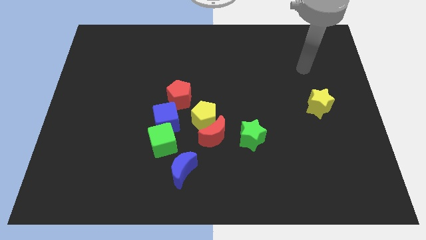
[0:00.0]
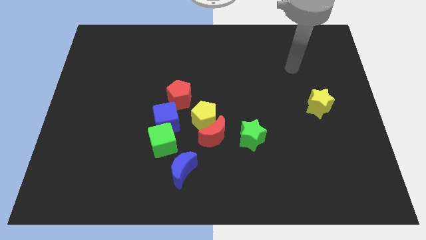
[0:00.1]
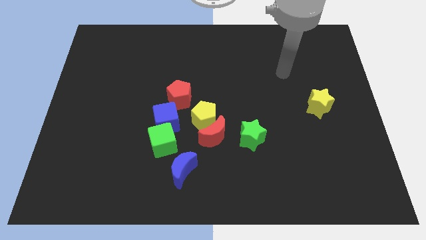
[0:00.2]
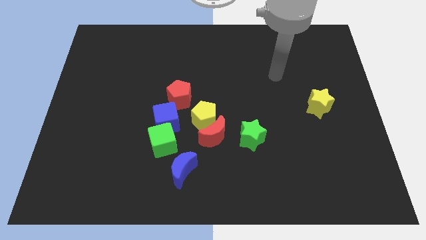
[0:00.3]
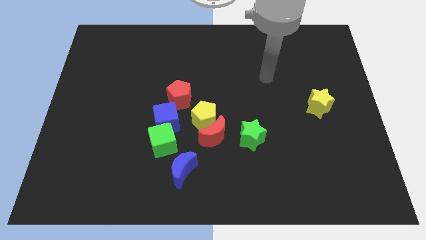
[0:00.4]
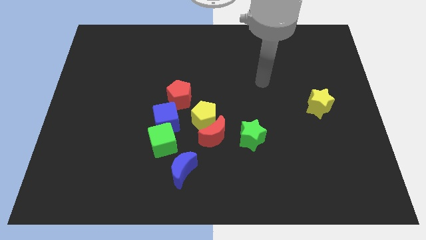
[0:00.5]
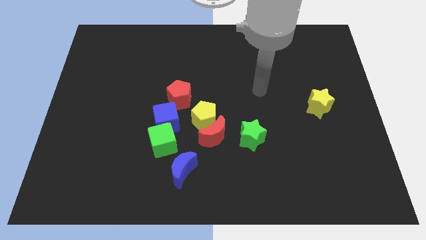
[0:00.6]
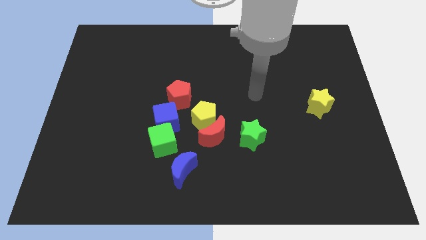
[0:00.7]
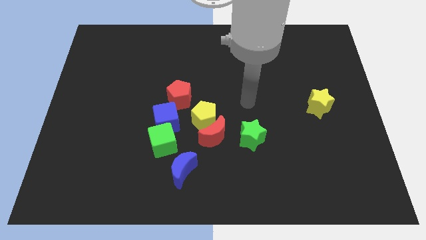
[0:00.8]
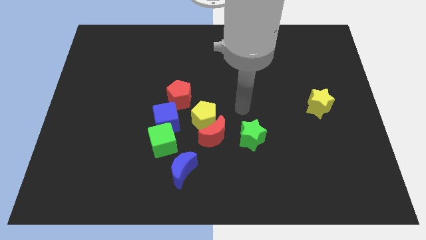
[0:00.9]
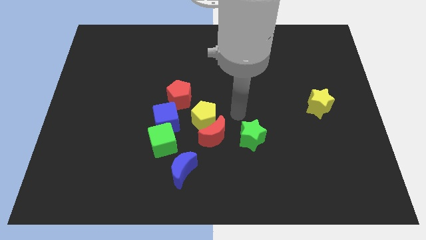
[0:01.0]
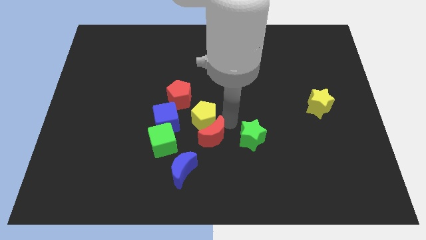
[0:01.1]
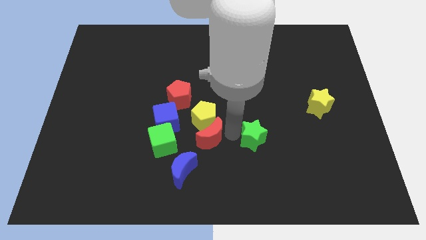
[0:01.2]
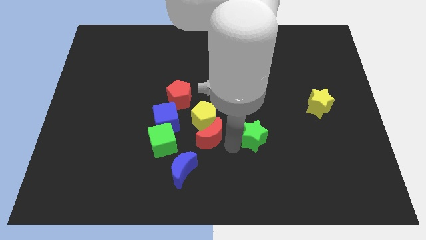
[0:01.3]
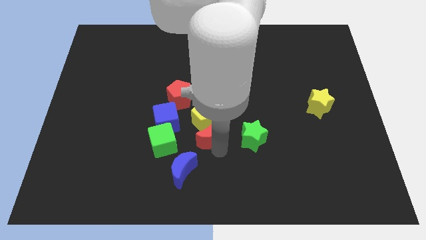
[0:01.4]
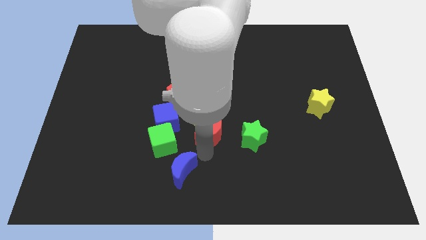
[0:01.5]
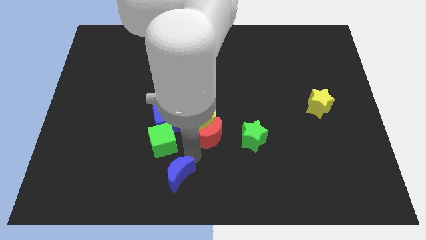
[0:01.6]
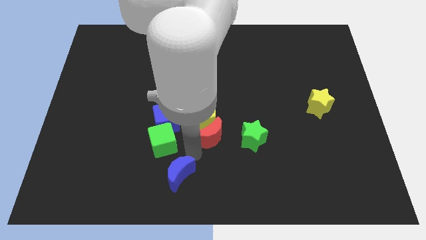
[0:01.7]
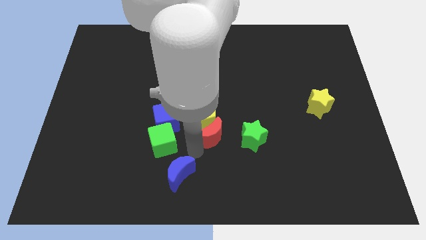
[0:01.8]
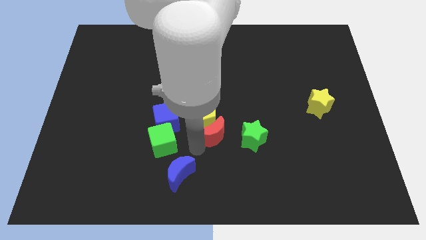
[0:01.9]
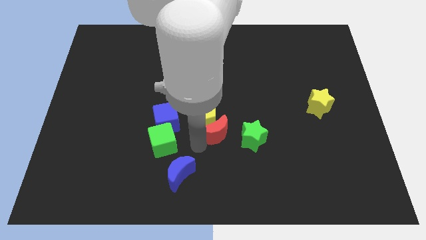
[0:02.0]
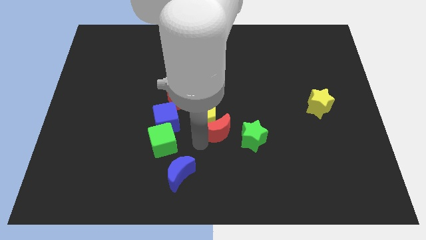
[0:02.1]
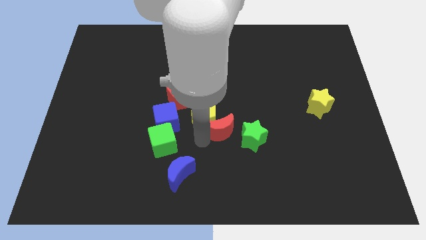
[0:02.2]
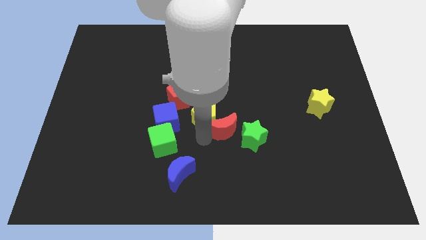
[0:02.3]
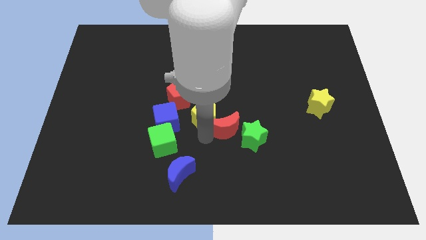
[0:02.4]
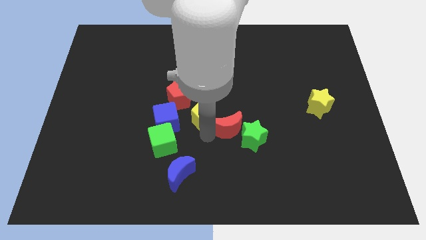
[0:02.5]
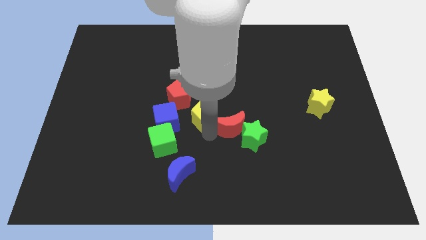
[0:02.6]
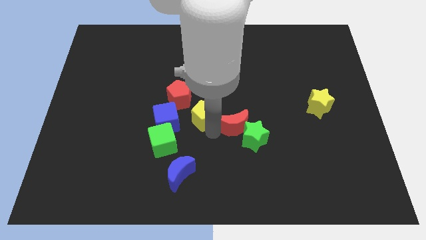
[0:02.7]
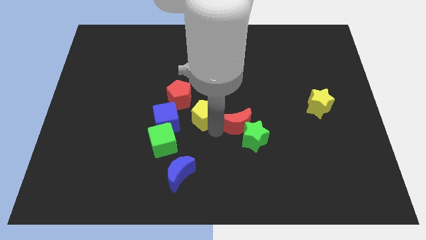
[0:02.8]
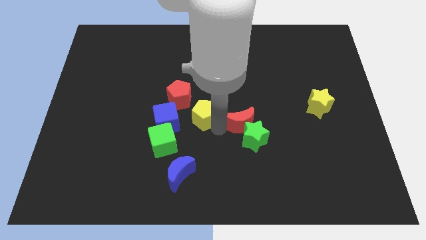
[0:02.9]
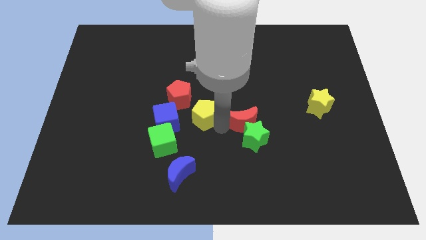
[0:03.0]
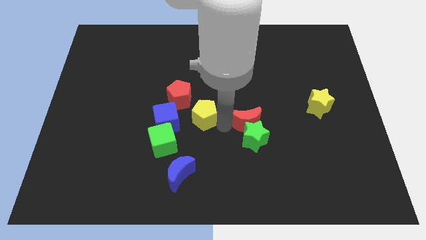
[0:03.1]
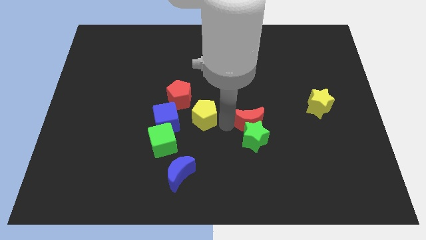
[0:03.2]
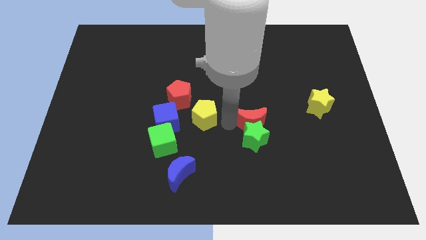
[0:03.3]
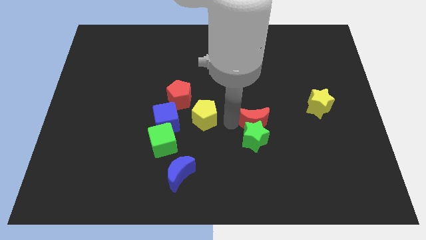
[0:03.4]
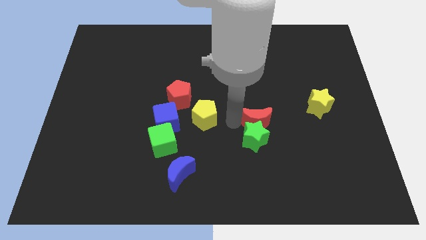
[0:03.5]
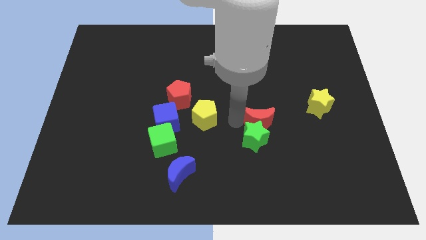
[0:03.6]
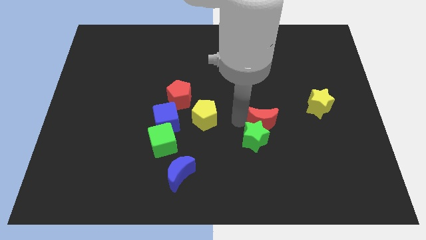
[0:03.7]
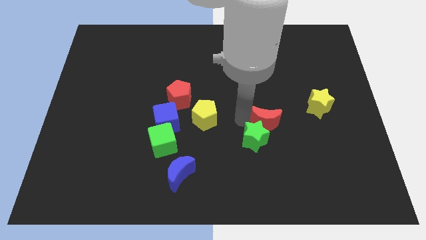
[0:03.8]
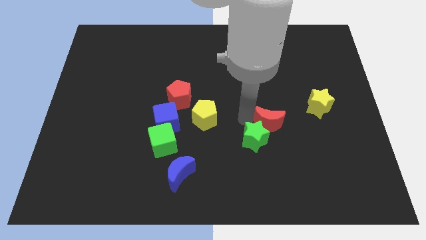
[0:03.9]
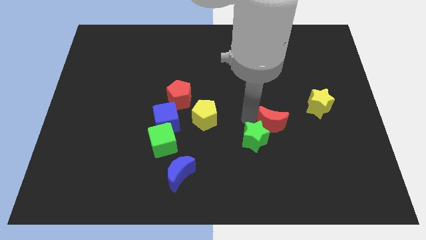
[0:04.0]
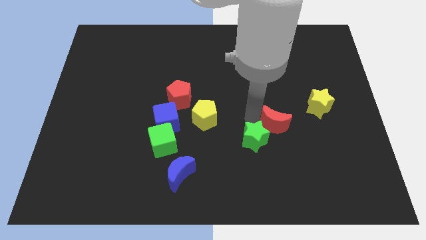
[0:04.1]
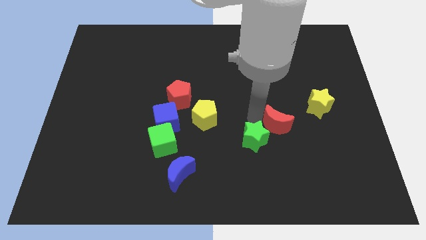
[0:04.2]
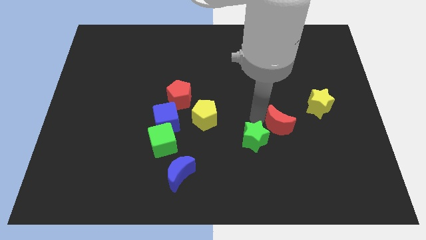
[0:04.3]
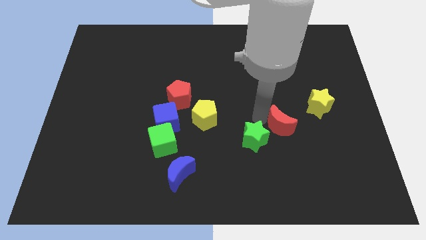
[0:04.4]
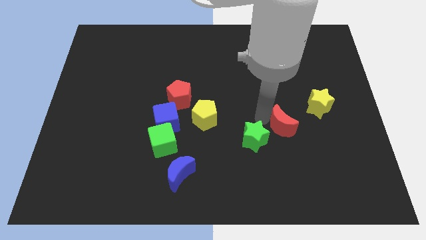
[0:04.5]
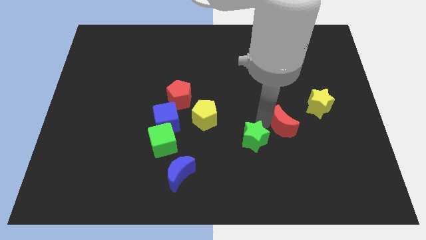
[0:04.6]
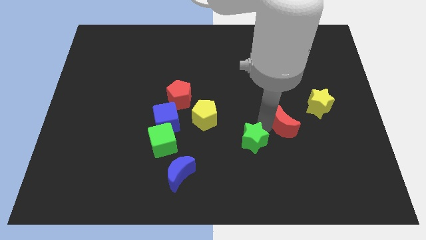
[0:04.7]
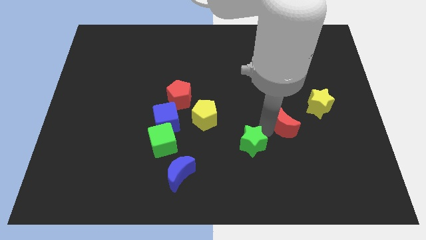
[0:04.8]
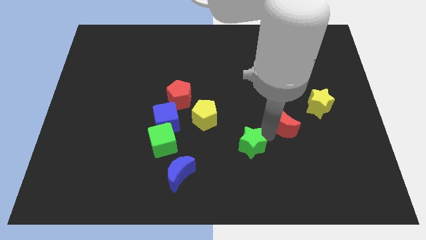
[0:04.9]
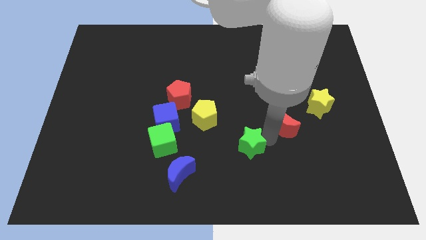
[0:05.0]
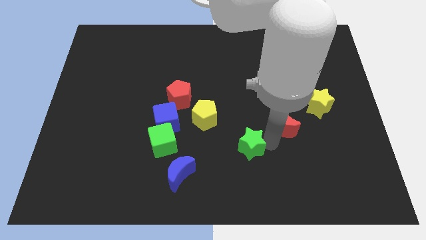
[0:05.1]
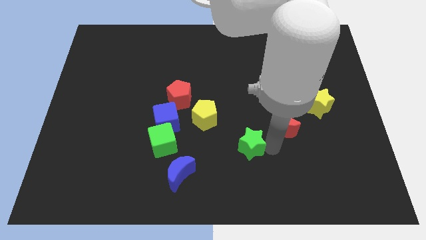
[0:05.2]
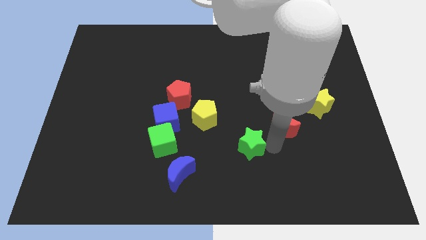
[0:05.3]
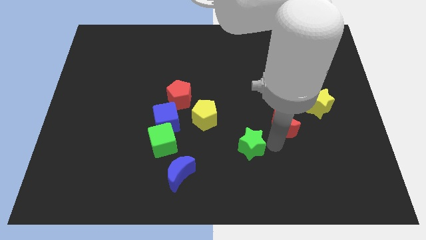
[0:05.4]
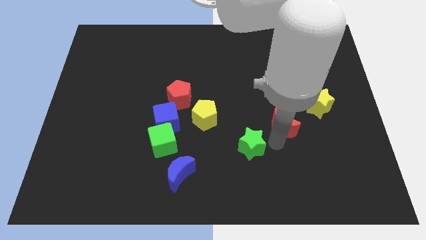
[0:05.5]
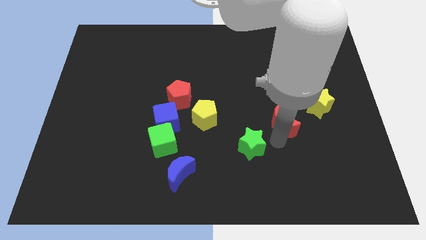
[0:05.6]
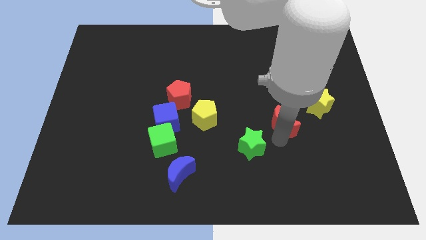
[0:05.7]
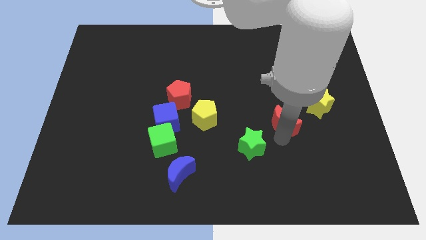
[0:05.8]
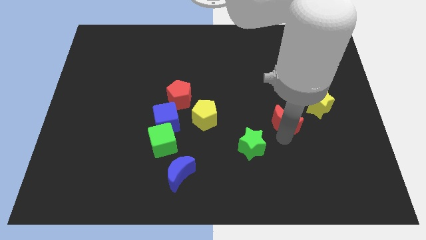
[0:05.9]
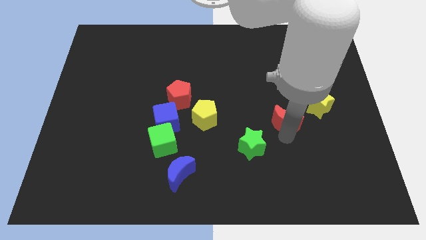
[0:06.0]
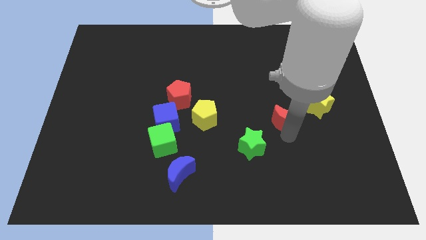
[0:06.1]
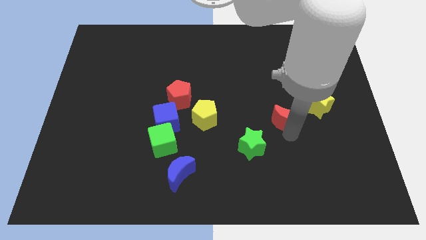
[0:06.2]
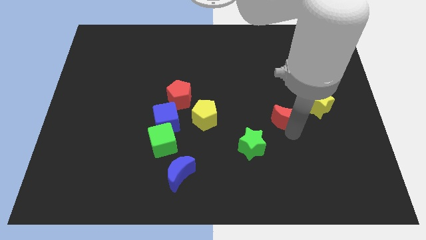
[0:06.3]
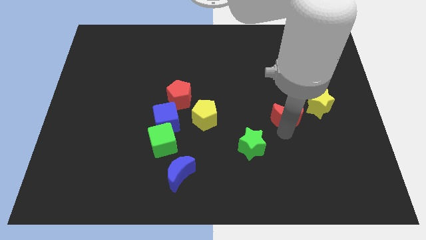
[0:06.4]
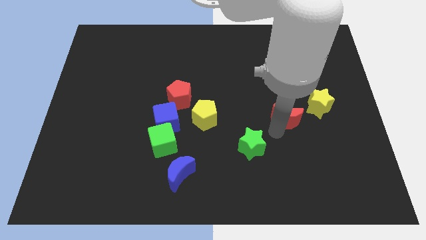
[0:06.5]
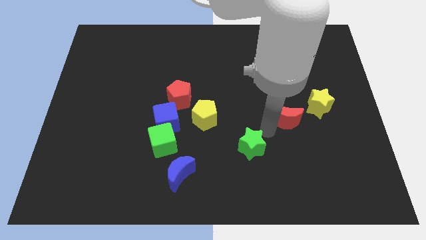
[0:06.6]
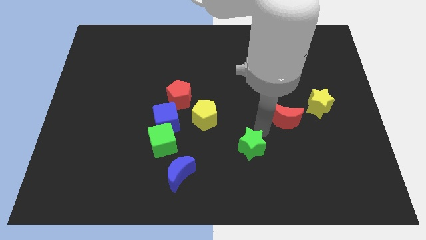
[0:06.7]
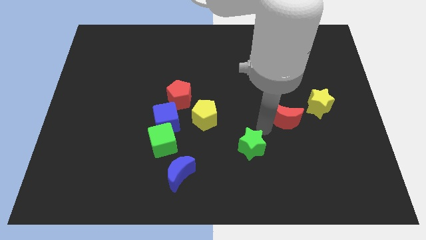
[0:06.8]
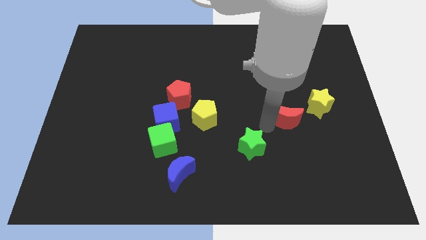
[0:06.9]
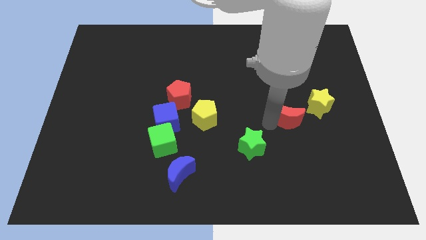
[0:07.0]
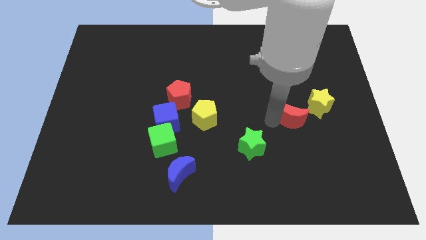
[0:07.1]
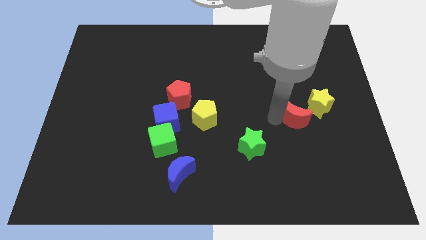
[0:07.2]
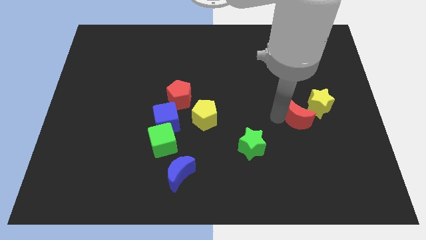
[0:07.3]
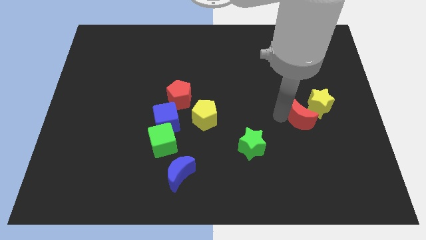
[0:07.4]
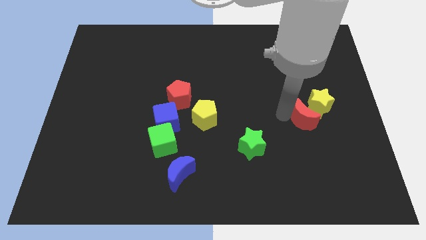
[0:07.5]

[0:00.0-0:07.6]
put the red moon to the yellow star
